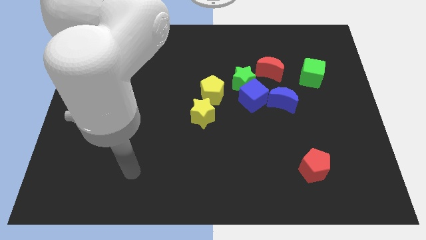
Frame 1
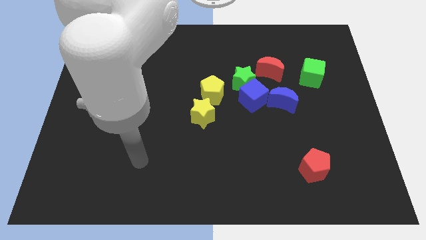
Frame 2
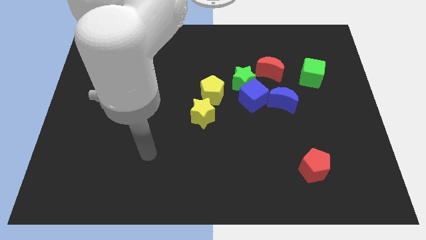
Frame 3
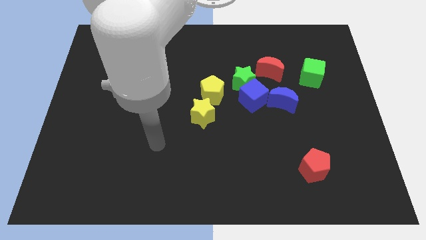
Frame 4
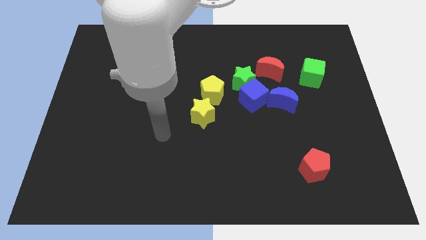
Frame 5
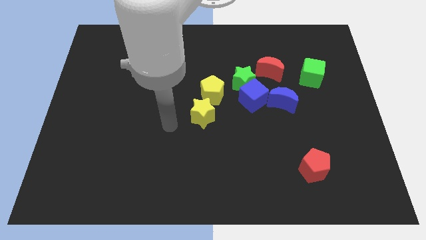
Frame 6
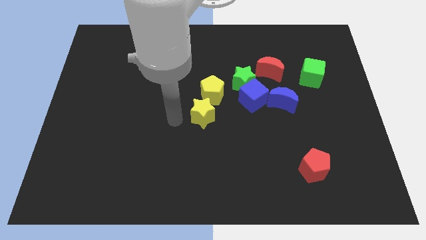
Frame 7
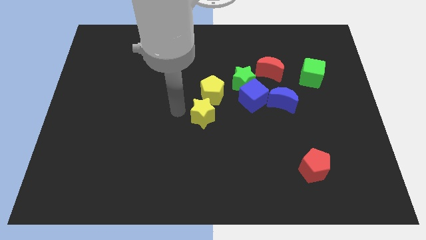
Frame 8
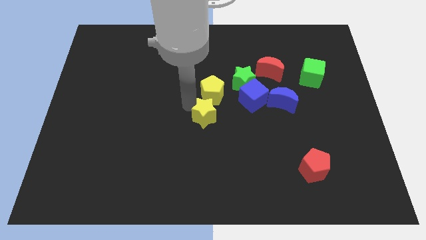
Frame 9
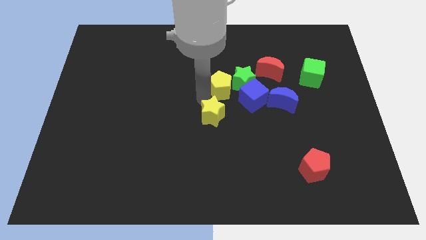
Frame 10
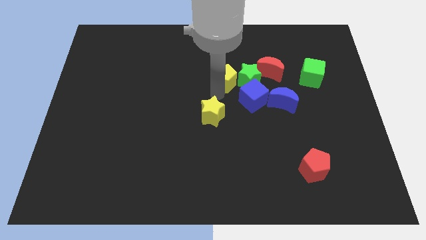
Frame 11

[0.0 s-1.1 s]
pull the yellow star apart from the yellow pentagon

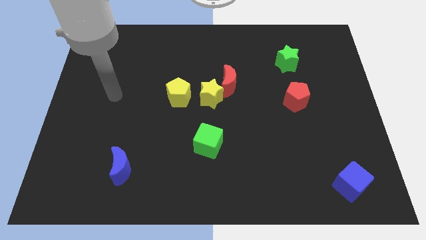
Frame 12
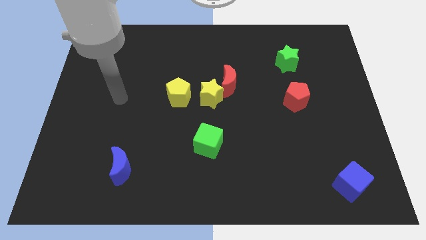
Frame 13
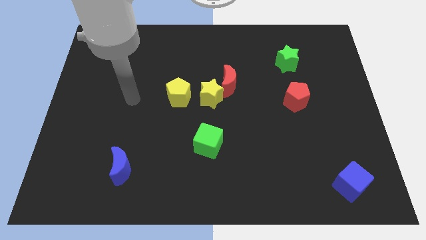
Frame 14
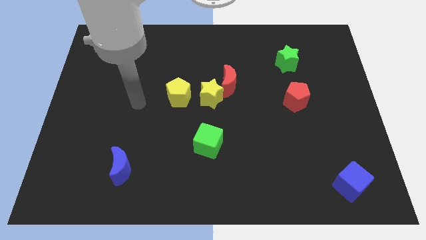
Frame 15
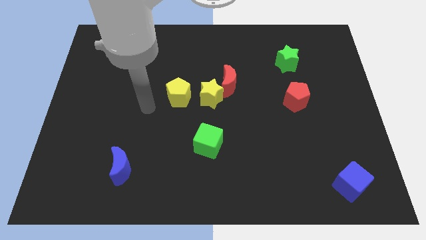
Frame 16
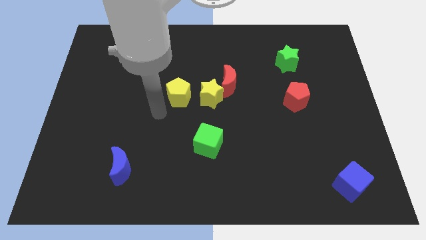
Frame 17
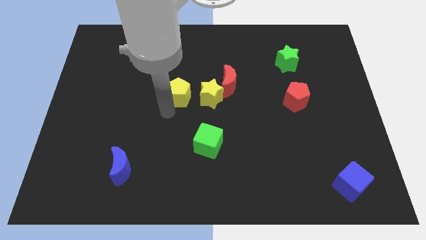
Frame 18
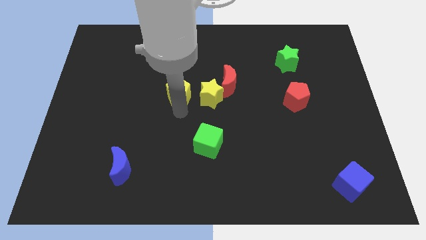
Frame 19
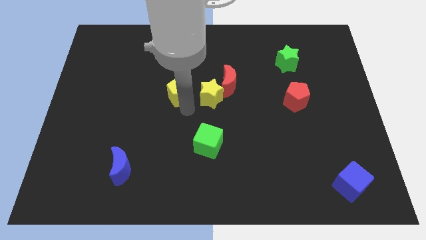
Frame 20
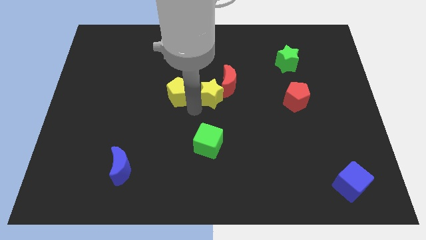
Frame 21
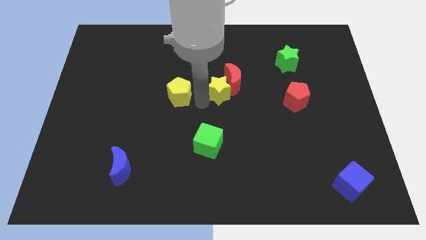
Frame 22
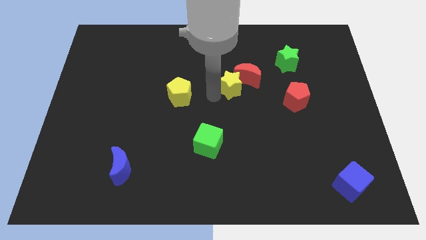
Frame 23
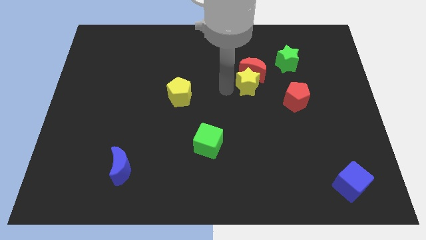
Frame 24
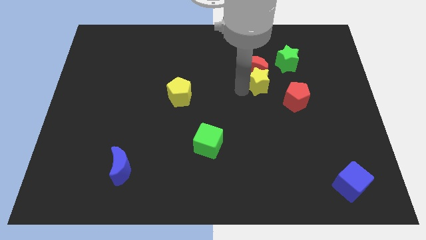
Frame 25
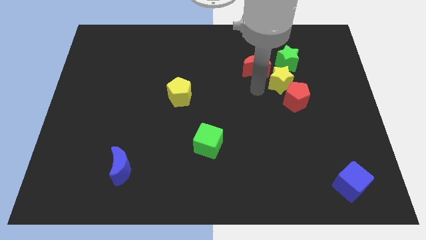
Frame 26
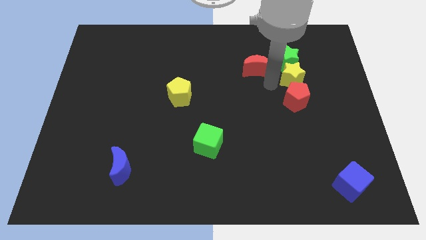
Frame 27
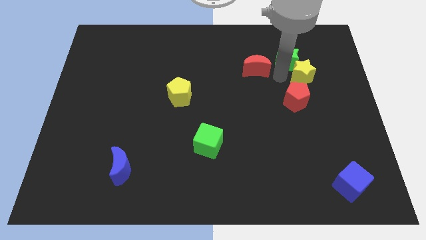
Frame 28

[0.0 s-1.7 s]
move the red moon away from the yellow star

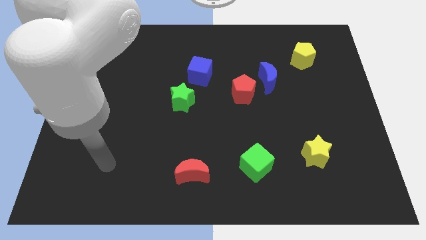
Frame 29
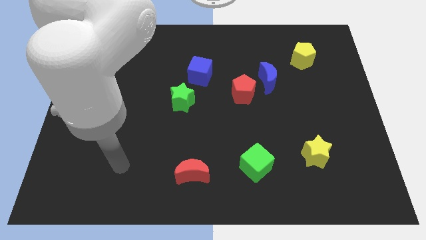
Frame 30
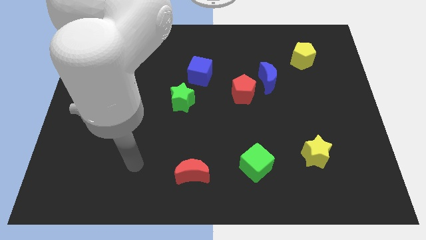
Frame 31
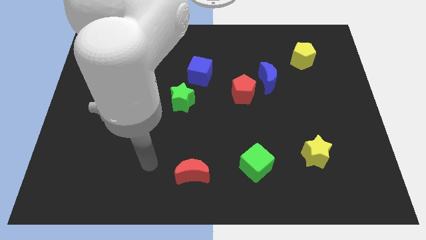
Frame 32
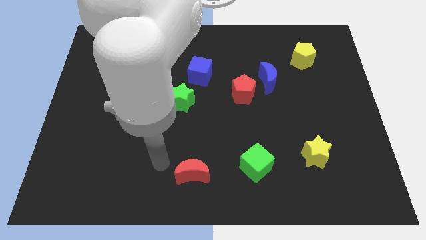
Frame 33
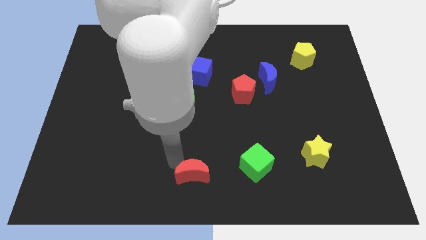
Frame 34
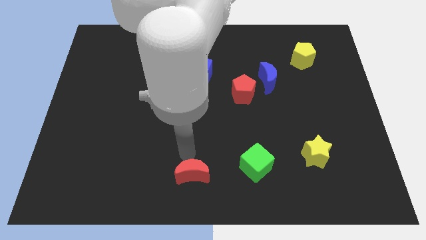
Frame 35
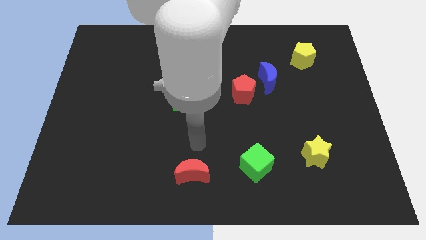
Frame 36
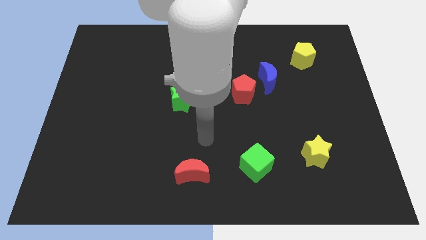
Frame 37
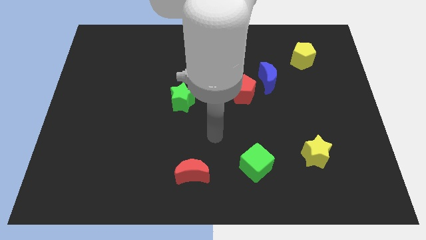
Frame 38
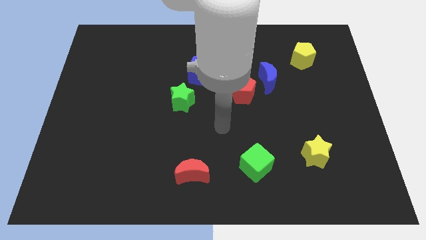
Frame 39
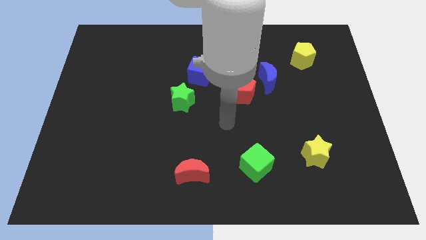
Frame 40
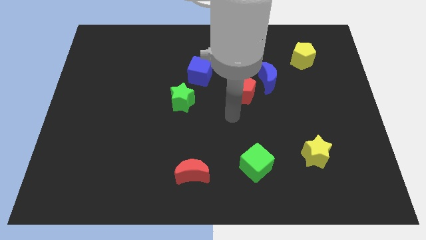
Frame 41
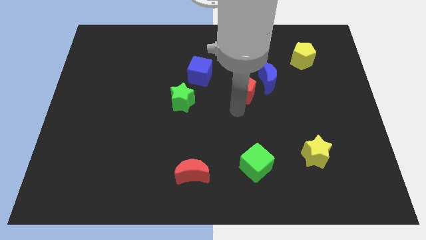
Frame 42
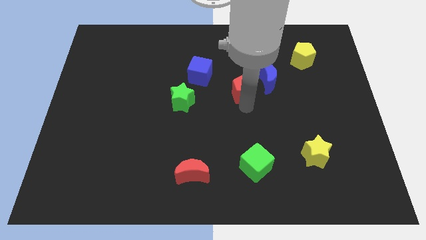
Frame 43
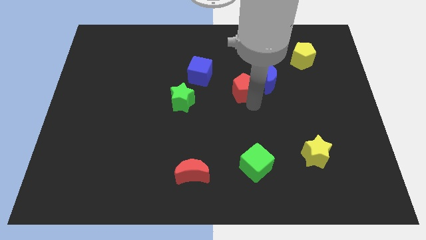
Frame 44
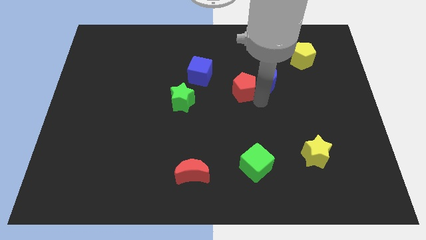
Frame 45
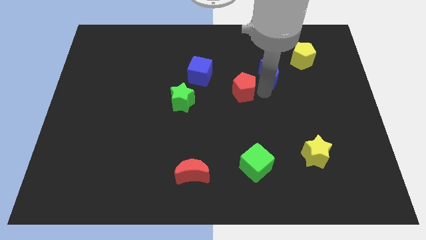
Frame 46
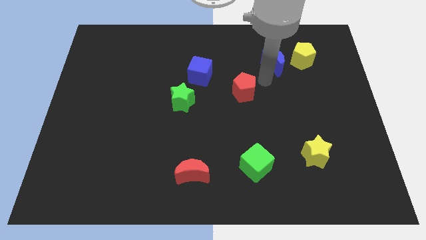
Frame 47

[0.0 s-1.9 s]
move the red pentagon away from the blue moon

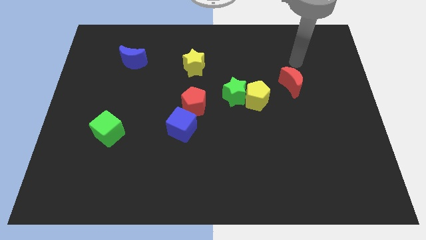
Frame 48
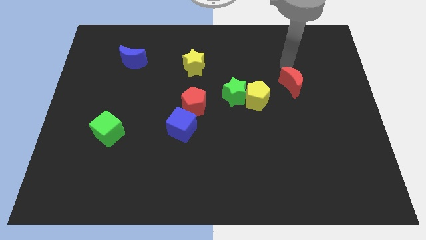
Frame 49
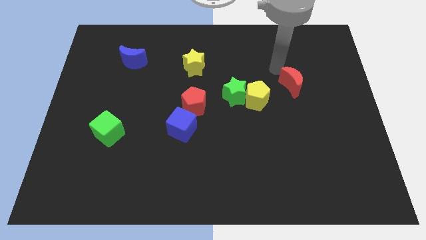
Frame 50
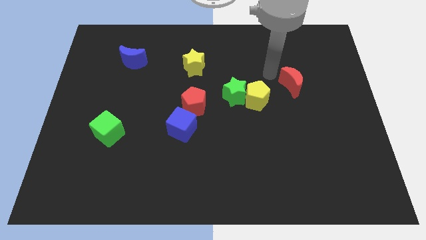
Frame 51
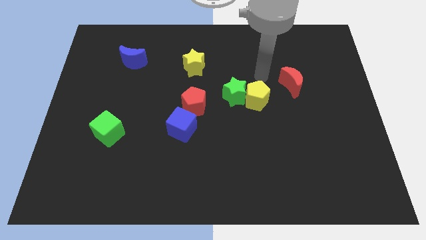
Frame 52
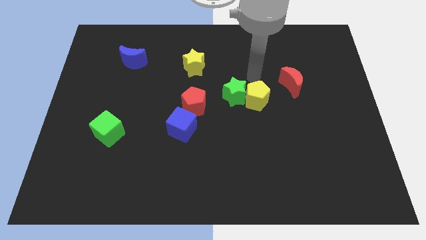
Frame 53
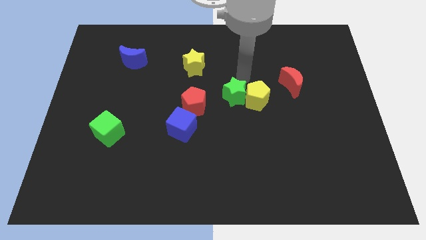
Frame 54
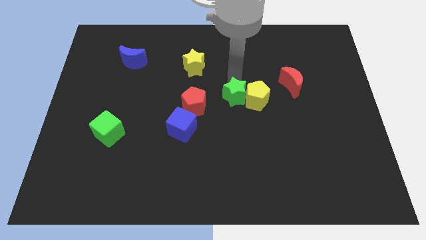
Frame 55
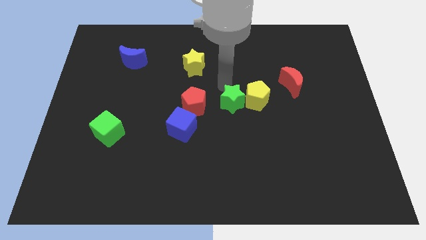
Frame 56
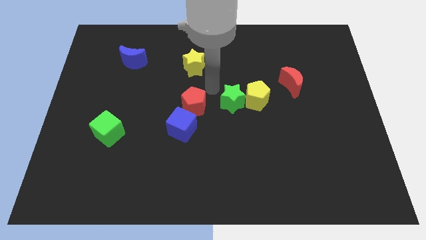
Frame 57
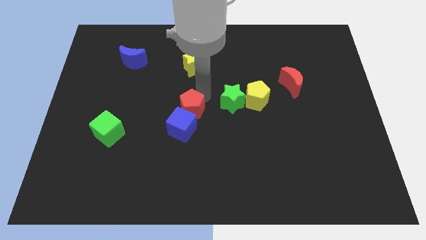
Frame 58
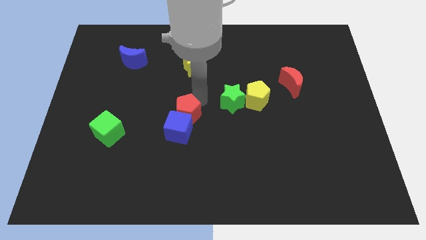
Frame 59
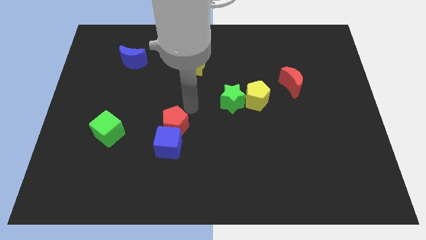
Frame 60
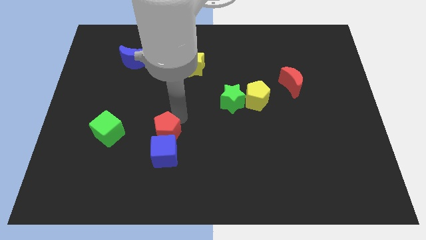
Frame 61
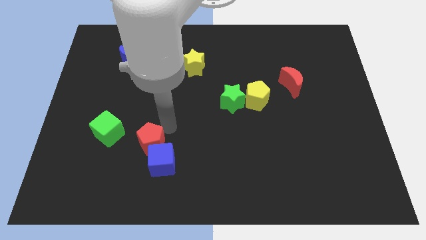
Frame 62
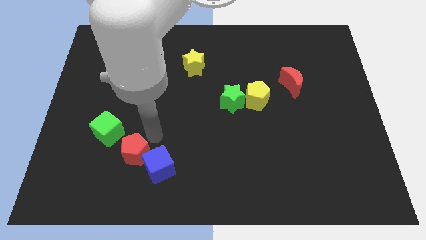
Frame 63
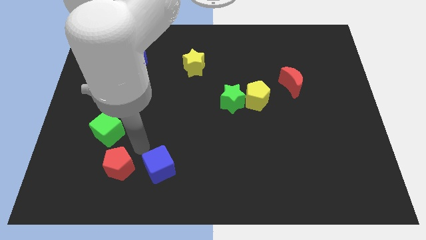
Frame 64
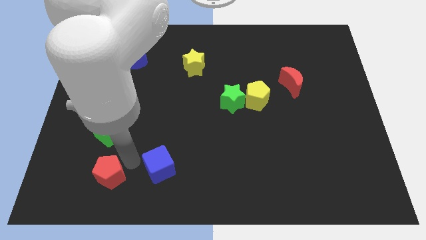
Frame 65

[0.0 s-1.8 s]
separate the blue cube from the red pentagon

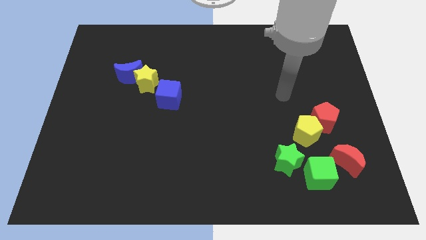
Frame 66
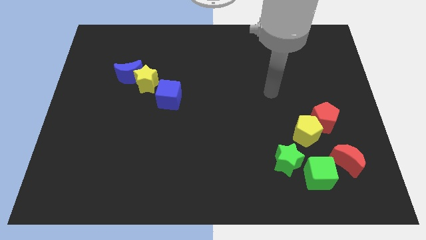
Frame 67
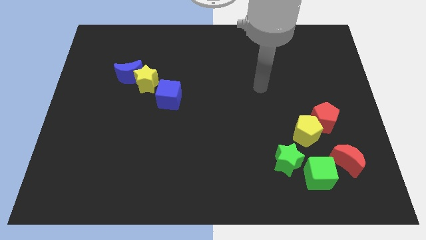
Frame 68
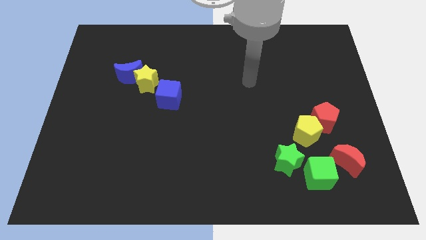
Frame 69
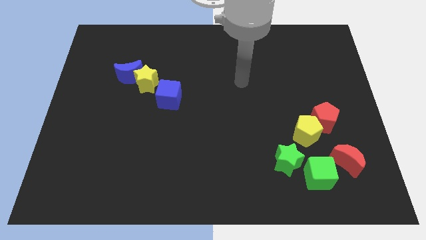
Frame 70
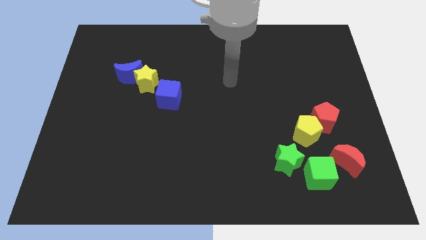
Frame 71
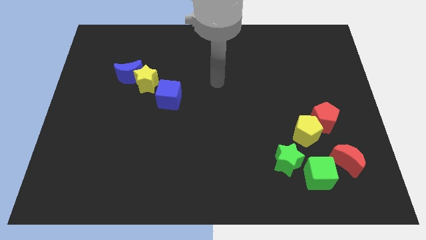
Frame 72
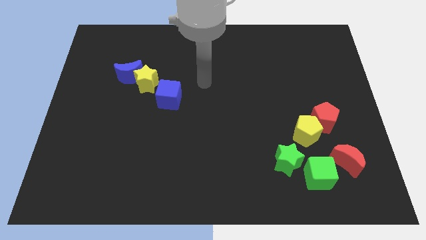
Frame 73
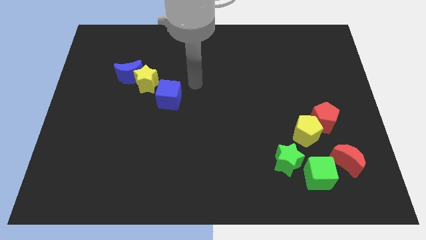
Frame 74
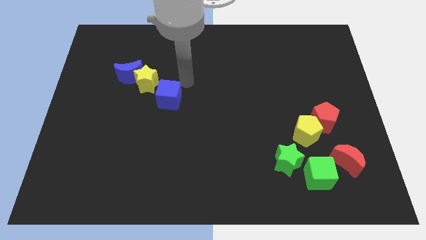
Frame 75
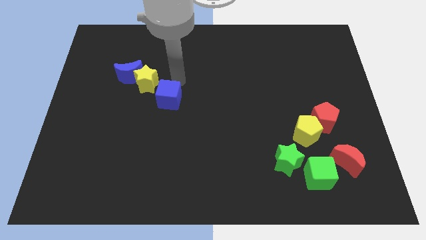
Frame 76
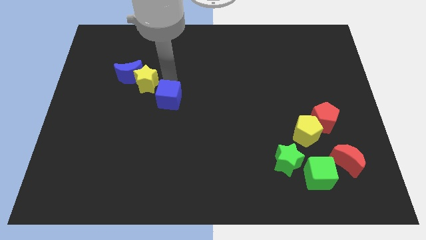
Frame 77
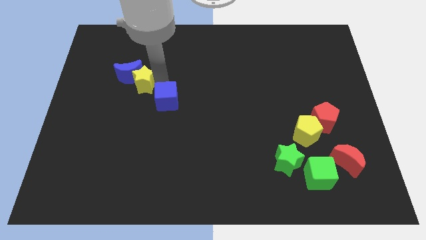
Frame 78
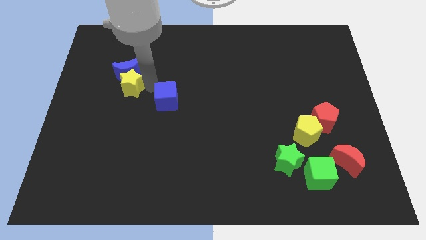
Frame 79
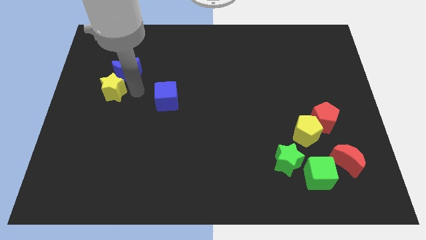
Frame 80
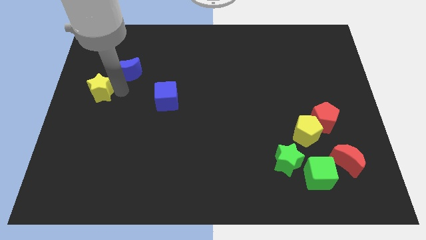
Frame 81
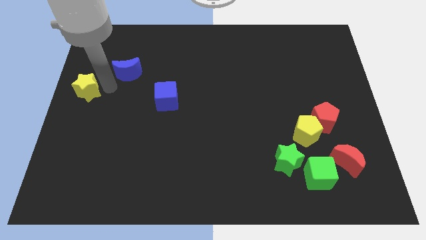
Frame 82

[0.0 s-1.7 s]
pull the blue moon apart from the yellow star

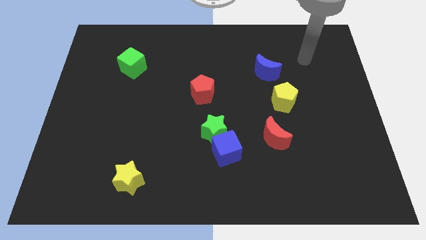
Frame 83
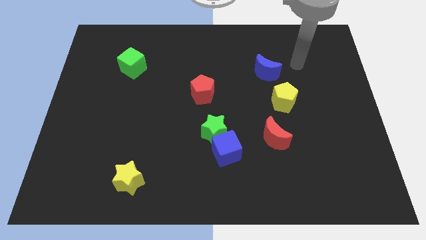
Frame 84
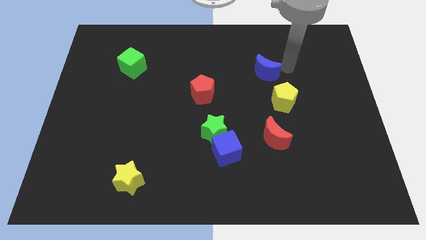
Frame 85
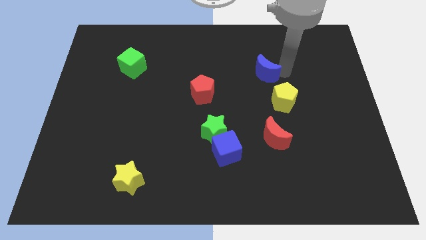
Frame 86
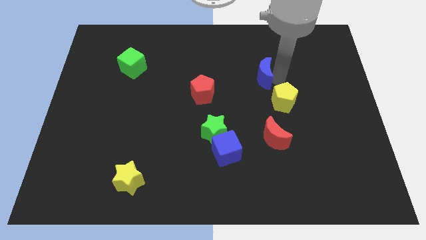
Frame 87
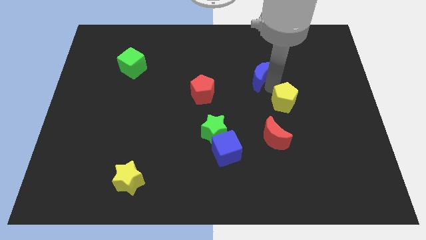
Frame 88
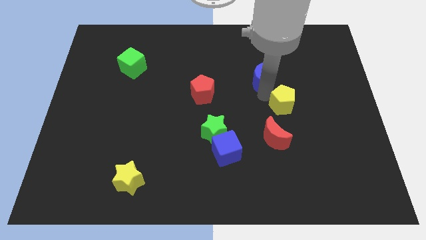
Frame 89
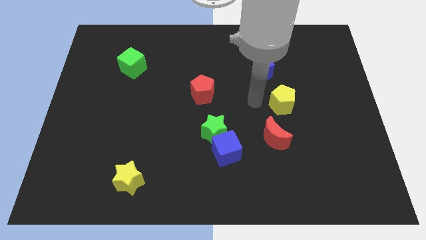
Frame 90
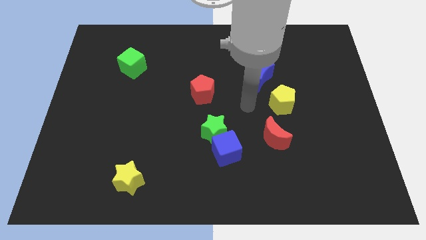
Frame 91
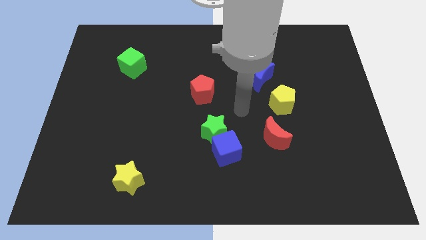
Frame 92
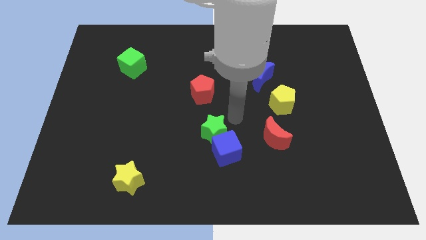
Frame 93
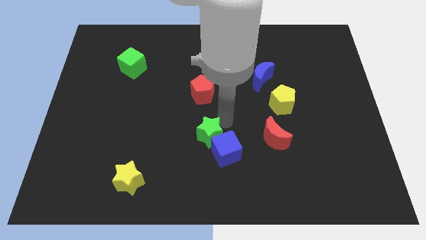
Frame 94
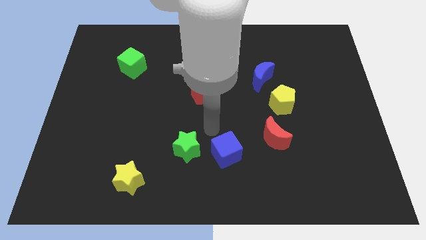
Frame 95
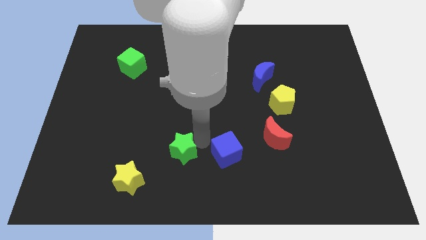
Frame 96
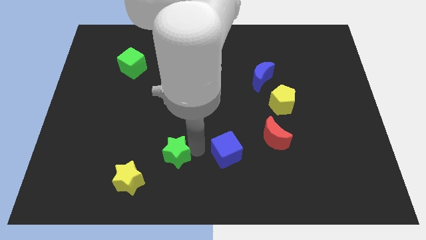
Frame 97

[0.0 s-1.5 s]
separate the blue cube from the green star
